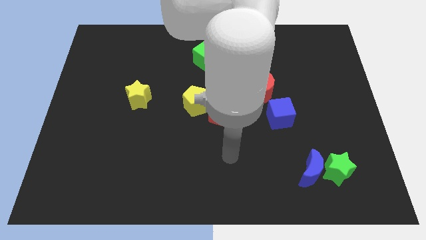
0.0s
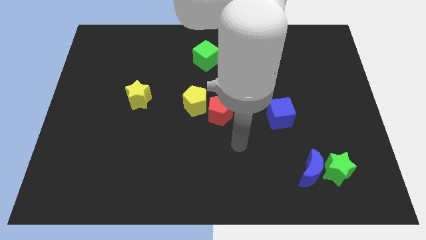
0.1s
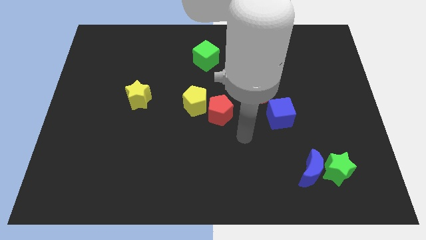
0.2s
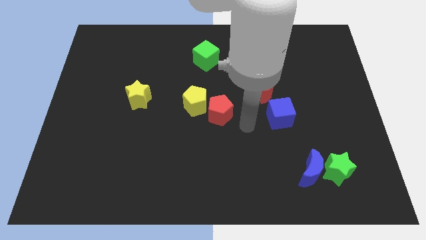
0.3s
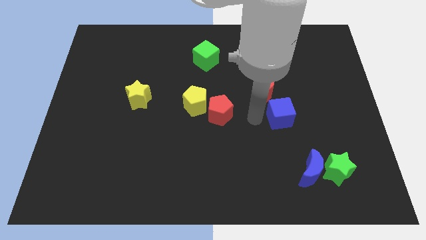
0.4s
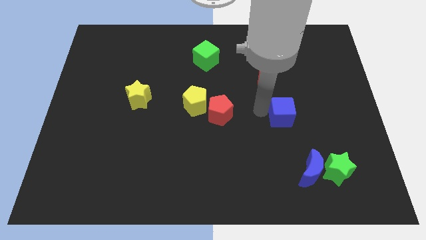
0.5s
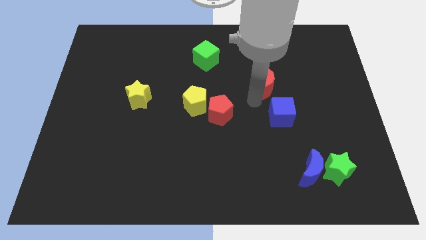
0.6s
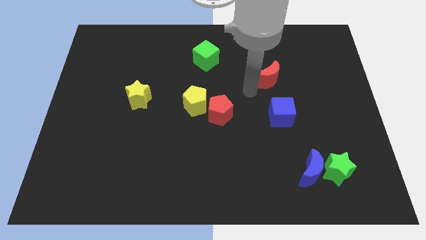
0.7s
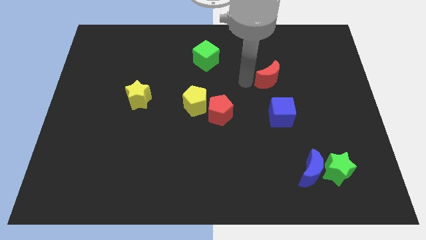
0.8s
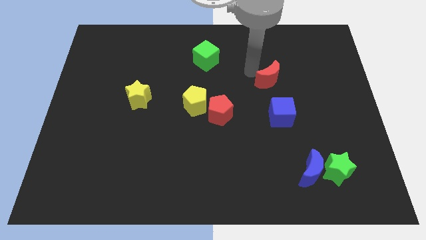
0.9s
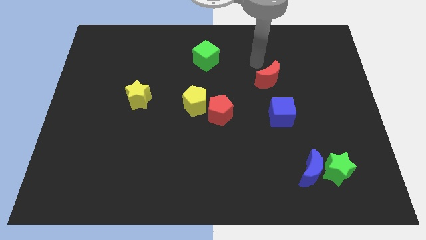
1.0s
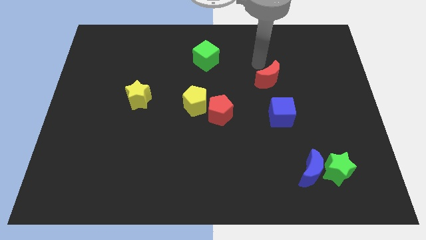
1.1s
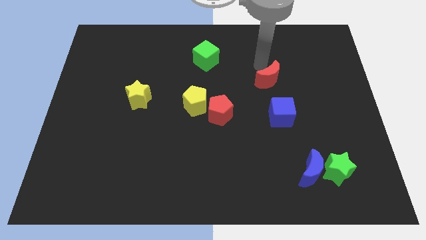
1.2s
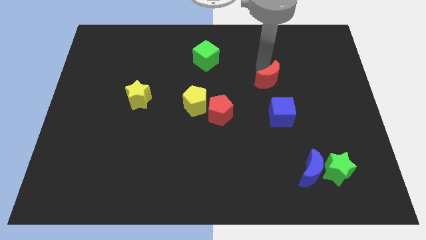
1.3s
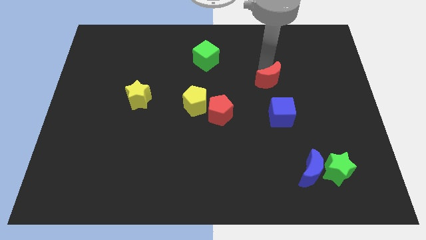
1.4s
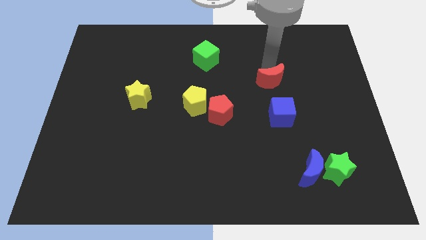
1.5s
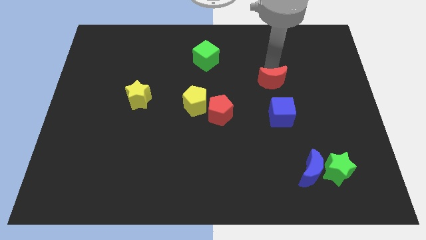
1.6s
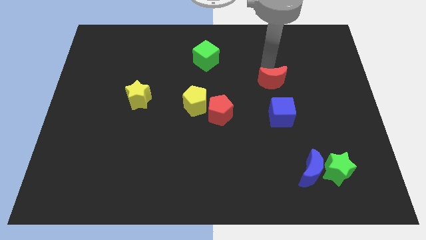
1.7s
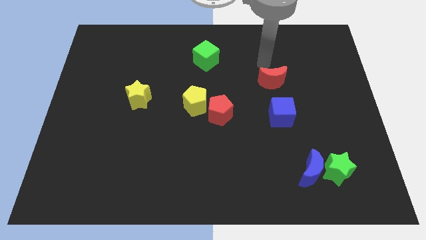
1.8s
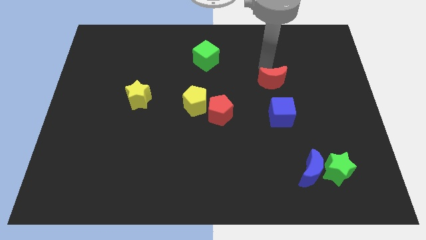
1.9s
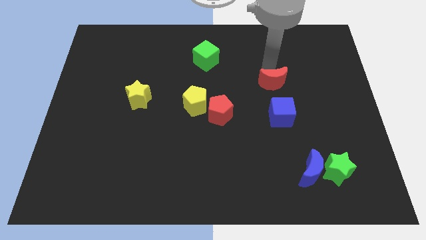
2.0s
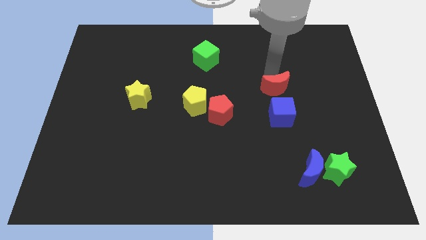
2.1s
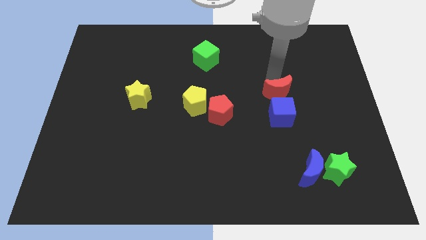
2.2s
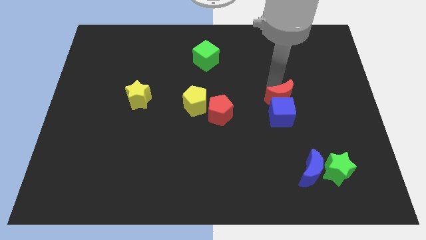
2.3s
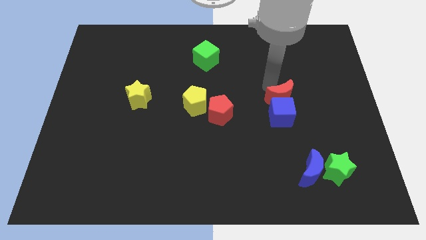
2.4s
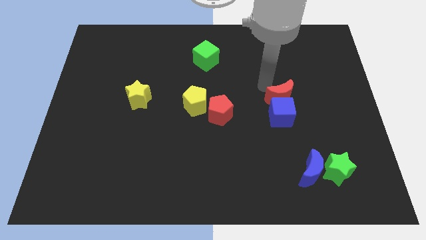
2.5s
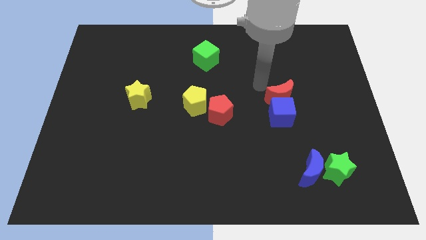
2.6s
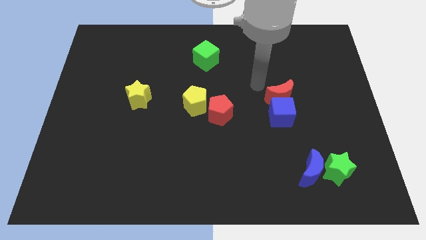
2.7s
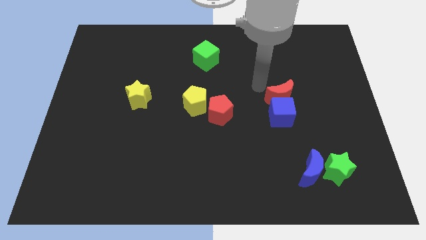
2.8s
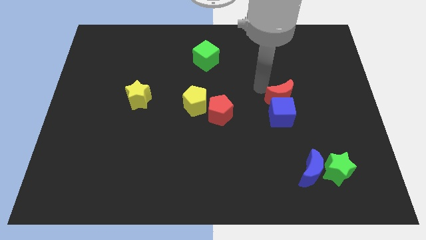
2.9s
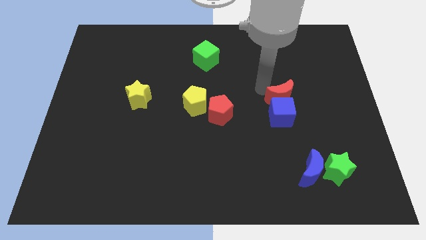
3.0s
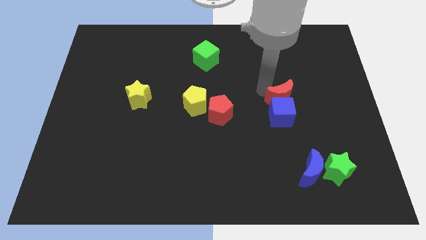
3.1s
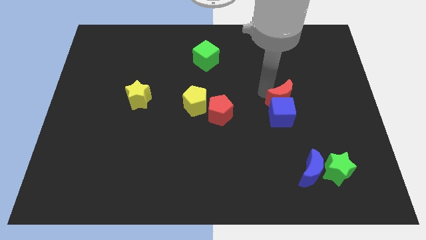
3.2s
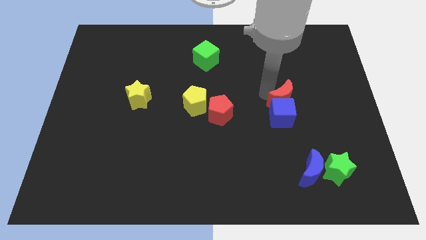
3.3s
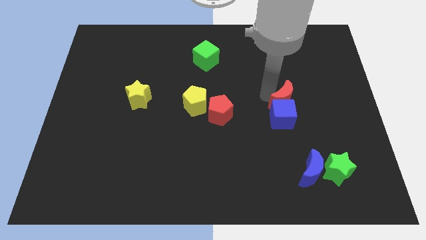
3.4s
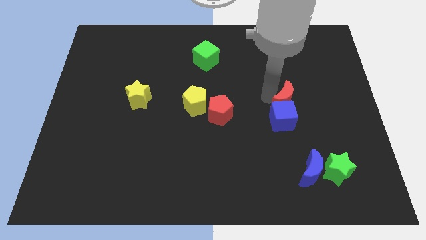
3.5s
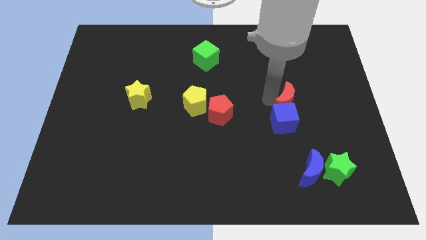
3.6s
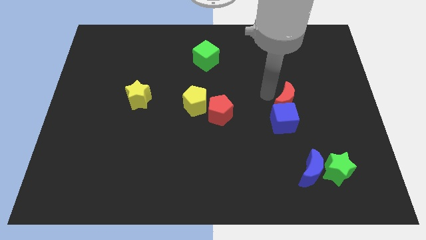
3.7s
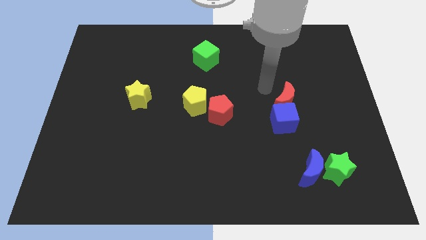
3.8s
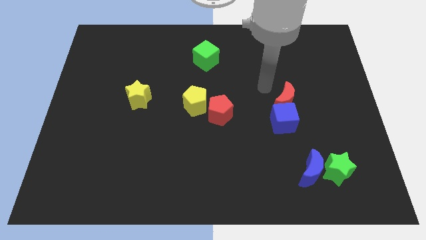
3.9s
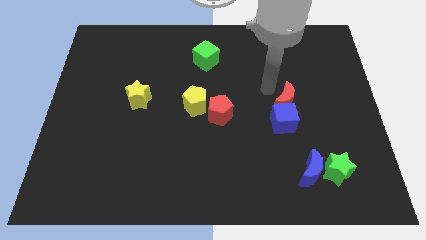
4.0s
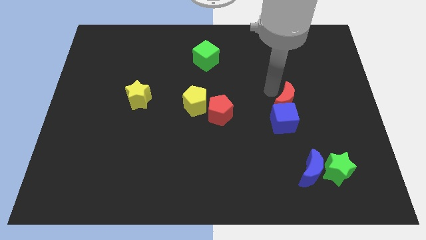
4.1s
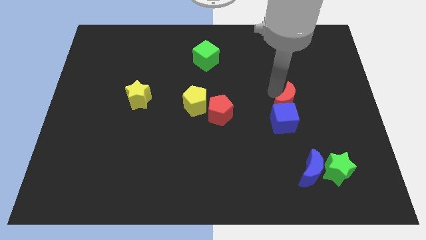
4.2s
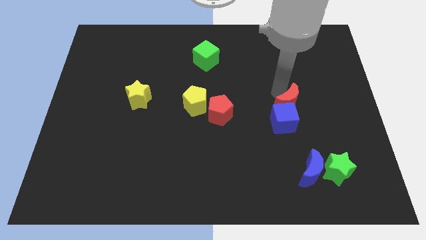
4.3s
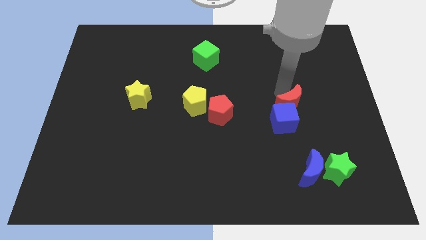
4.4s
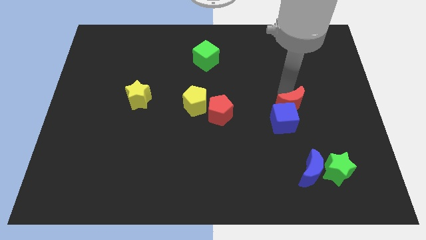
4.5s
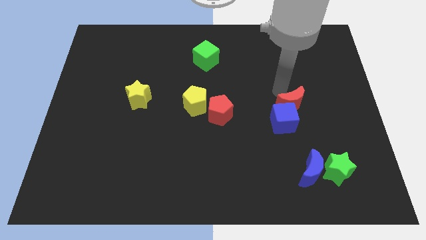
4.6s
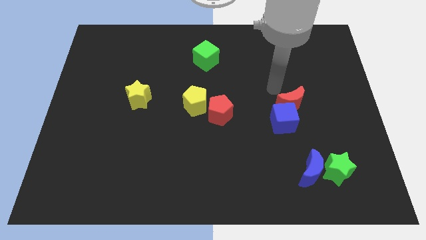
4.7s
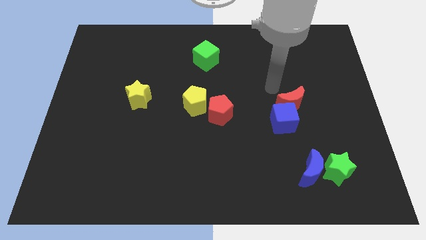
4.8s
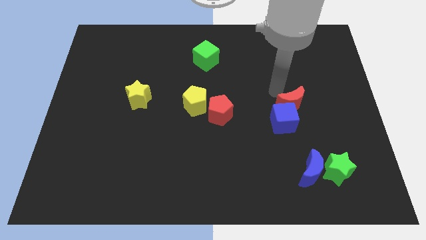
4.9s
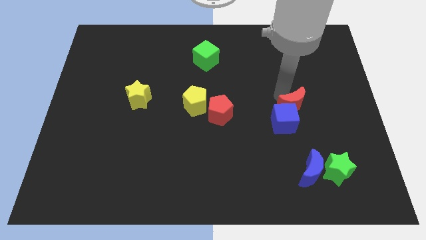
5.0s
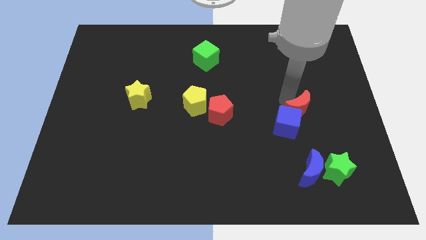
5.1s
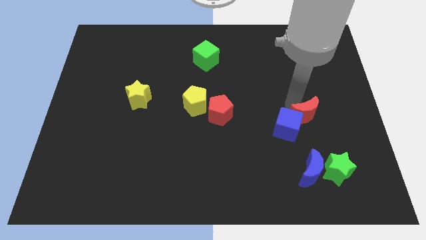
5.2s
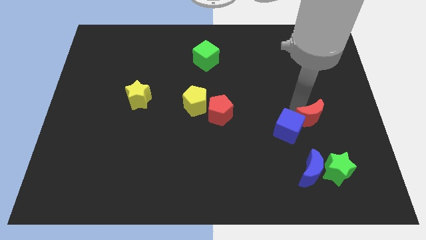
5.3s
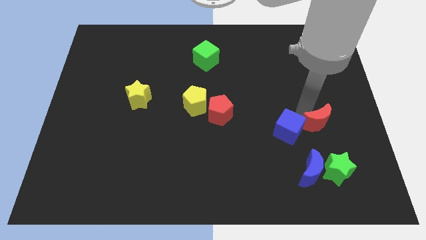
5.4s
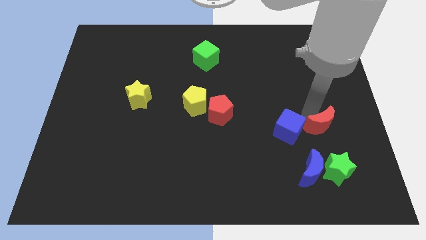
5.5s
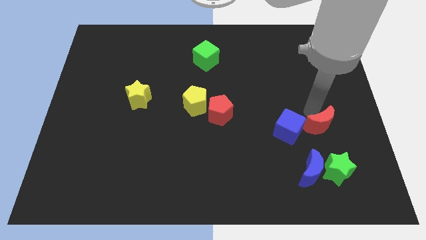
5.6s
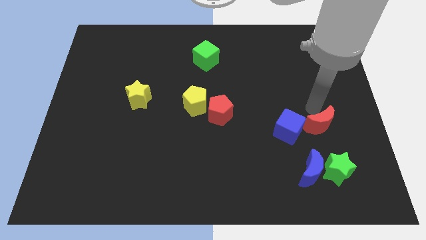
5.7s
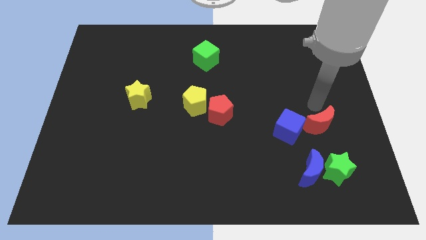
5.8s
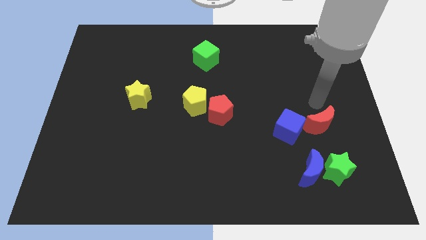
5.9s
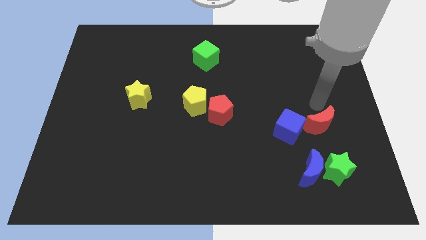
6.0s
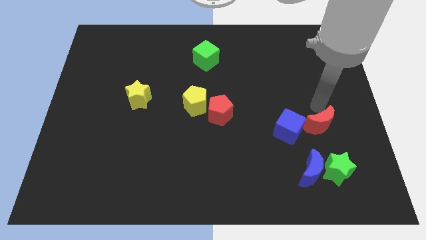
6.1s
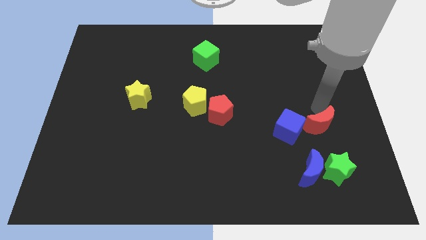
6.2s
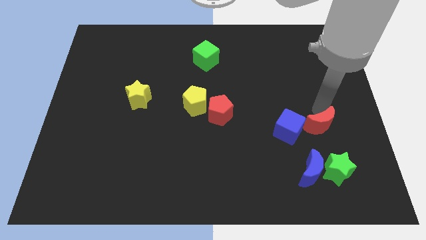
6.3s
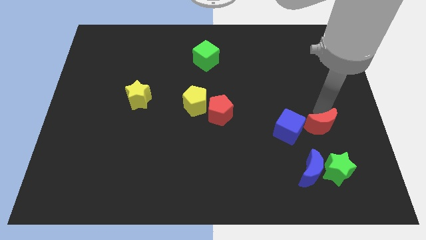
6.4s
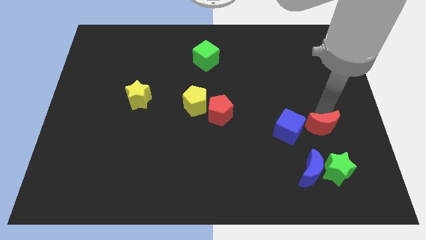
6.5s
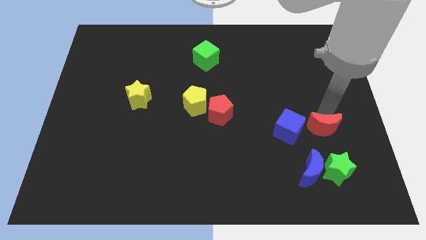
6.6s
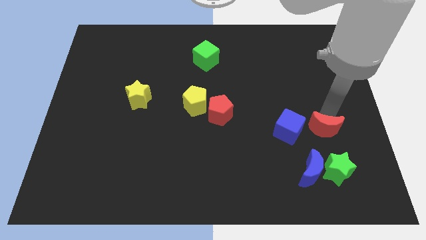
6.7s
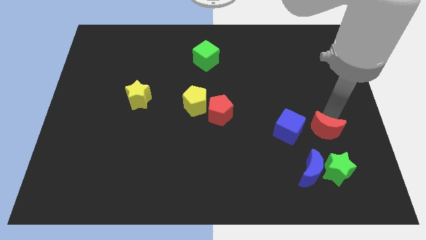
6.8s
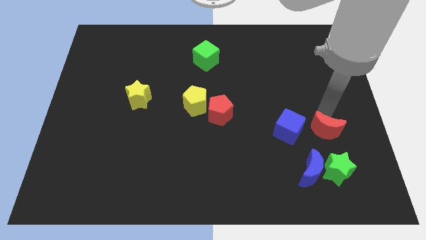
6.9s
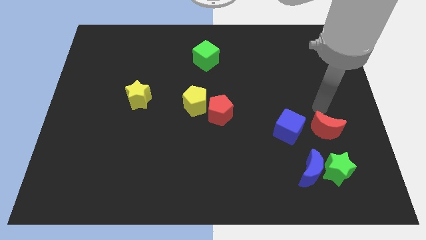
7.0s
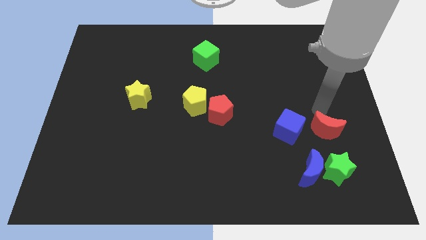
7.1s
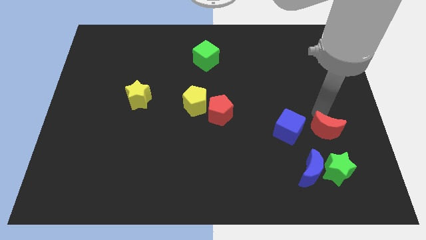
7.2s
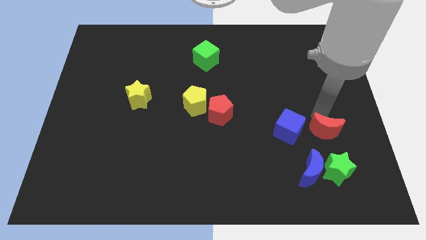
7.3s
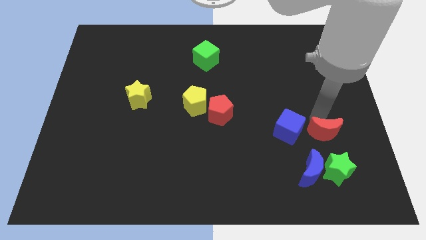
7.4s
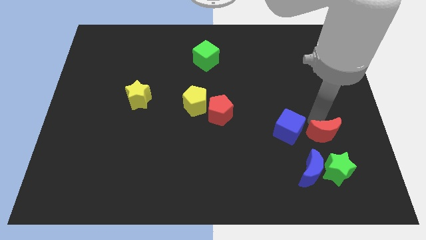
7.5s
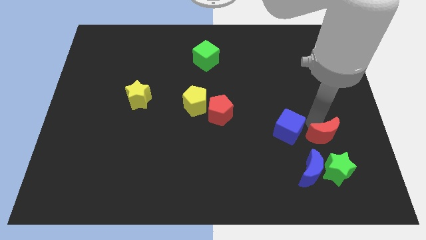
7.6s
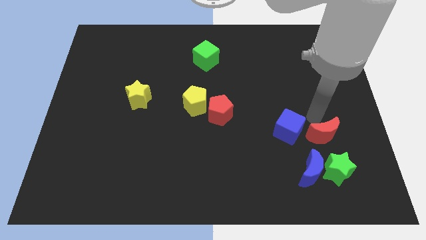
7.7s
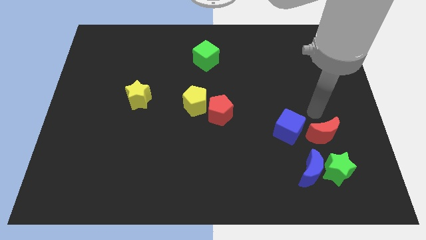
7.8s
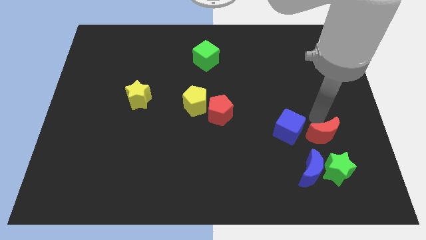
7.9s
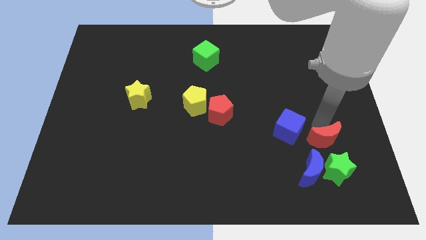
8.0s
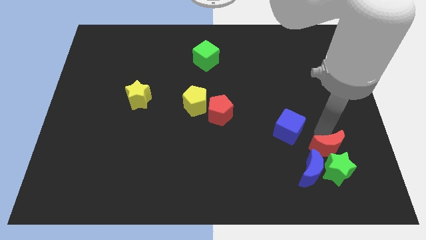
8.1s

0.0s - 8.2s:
slide the red moon towards the green star
